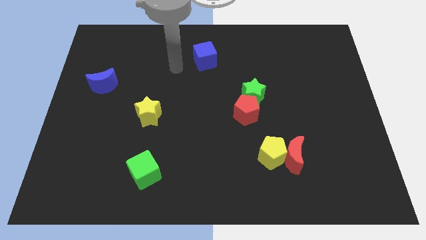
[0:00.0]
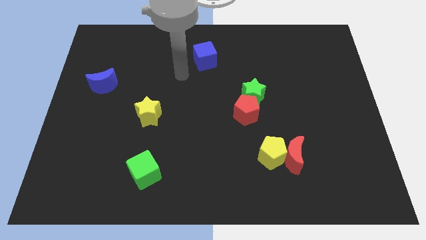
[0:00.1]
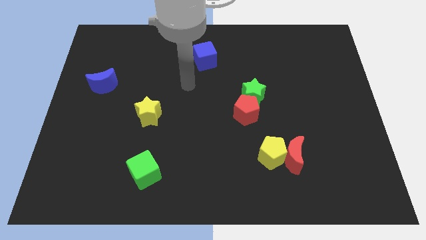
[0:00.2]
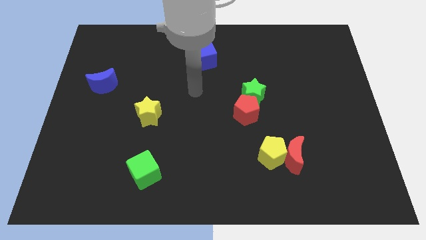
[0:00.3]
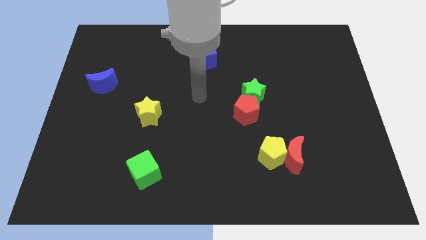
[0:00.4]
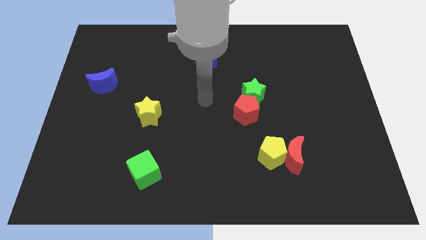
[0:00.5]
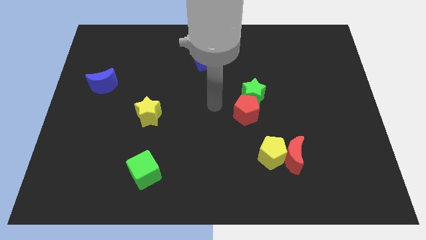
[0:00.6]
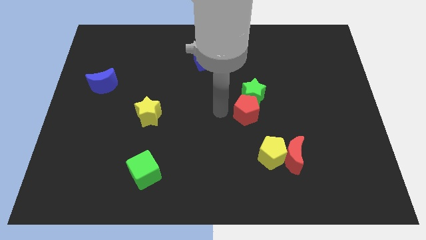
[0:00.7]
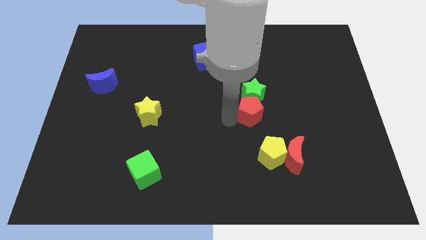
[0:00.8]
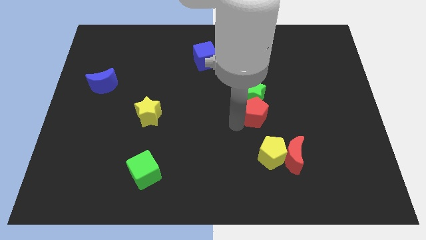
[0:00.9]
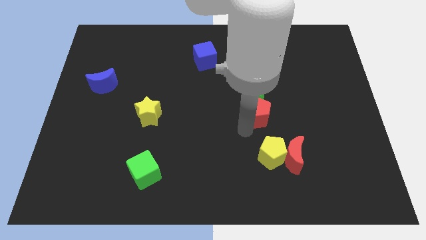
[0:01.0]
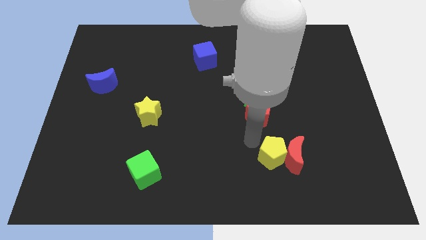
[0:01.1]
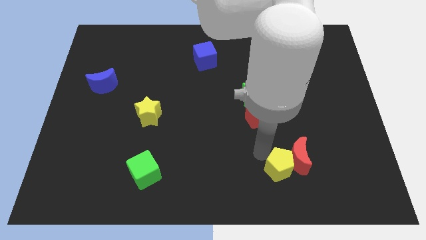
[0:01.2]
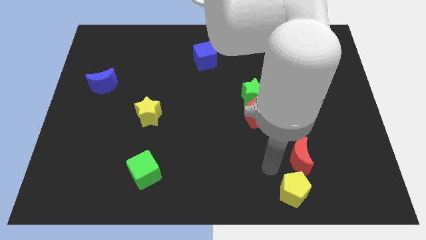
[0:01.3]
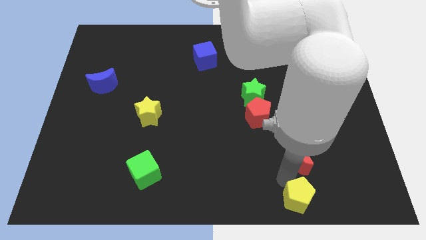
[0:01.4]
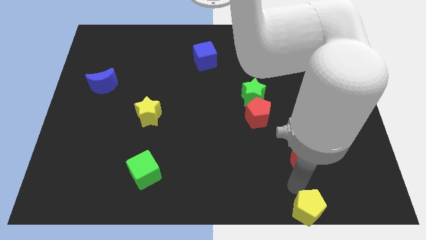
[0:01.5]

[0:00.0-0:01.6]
move the red moon away from the yellow pentagon

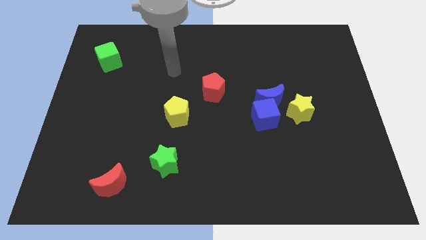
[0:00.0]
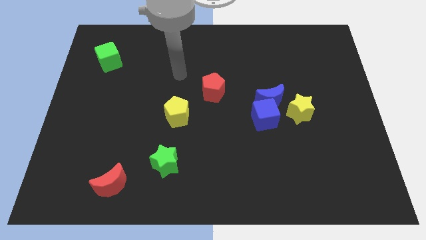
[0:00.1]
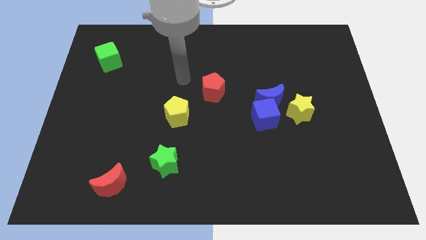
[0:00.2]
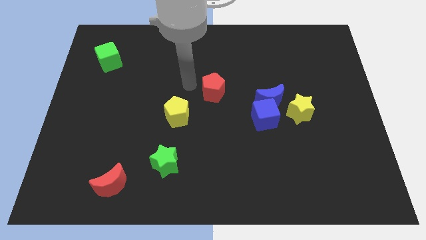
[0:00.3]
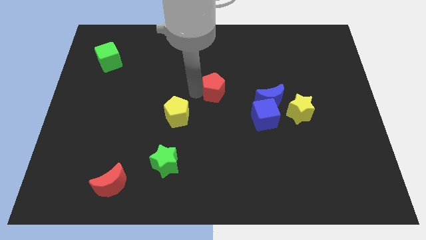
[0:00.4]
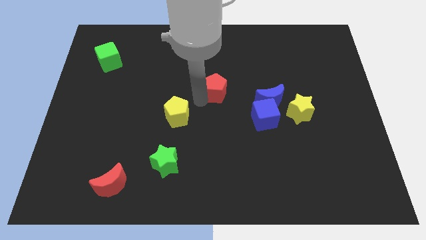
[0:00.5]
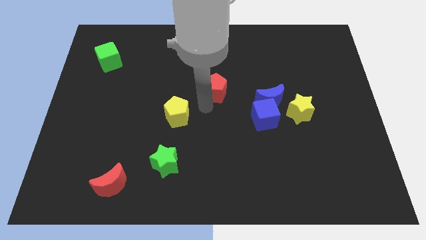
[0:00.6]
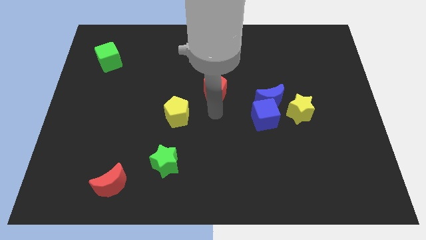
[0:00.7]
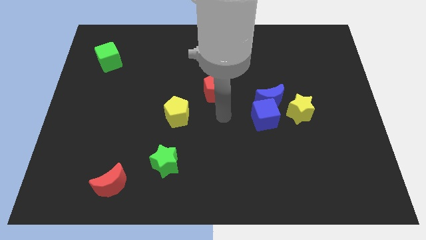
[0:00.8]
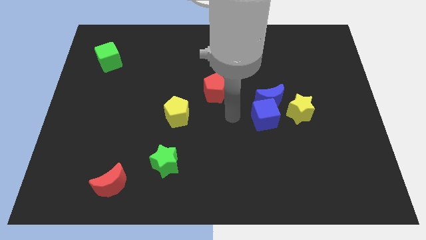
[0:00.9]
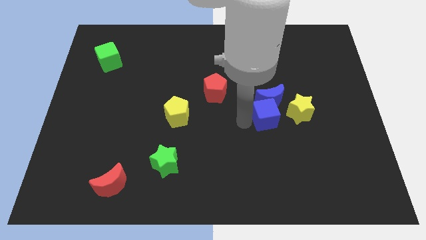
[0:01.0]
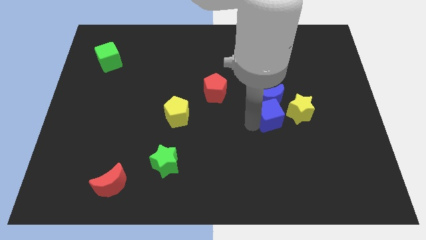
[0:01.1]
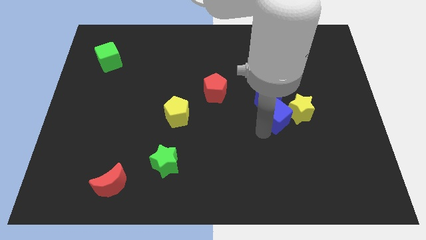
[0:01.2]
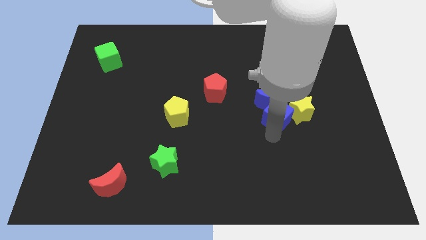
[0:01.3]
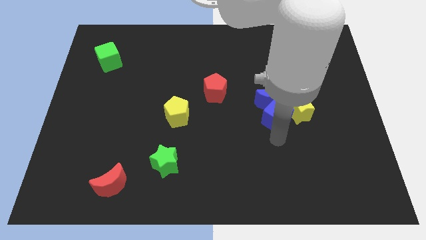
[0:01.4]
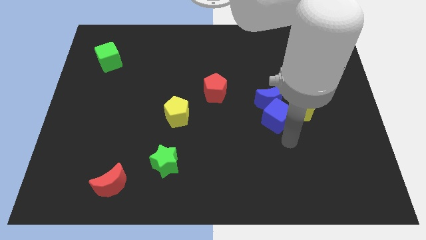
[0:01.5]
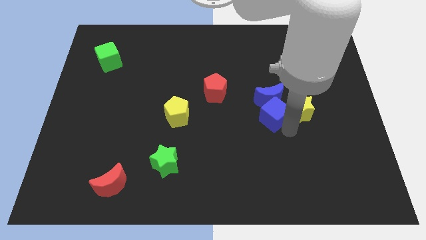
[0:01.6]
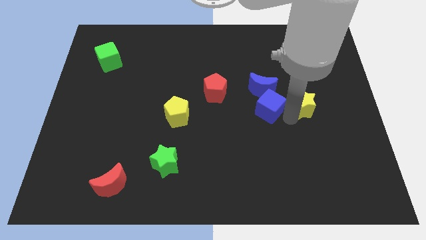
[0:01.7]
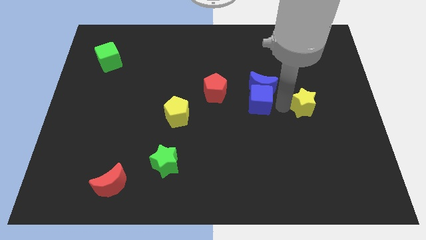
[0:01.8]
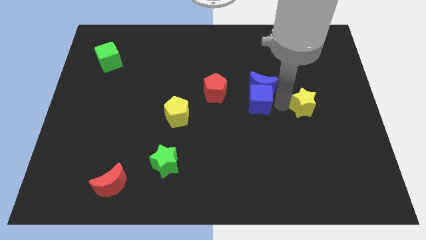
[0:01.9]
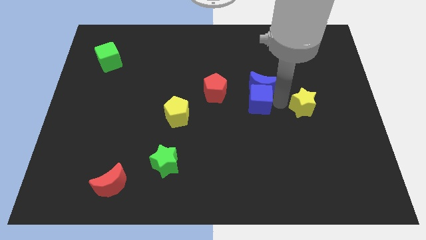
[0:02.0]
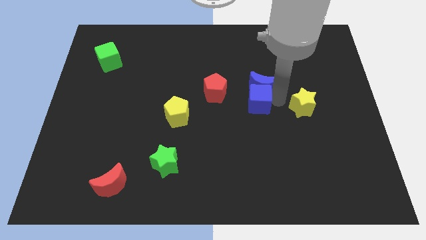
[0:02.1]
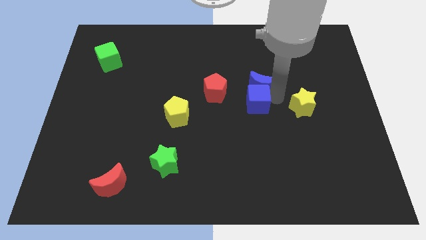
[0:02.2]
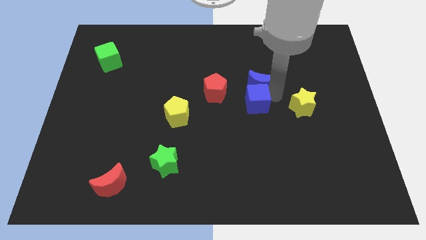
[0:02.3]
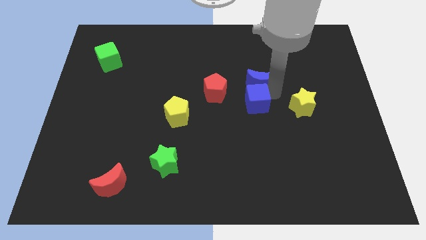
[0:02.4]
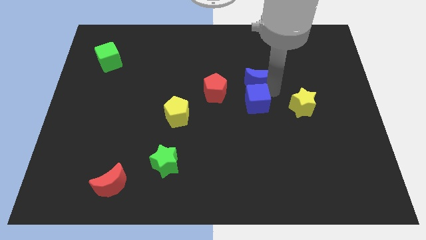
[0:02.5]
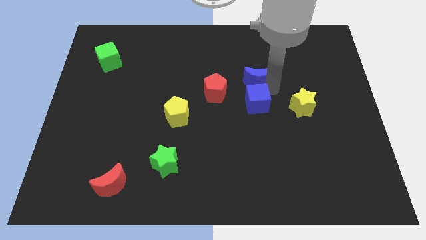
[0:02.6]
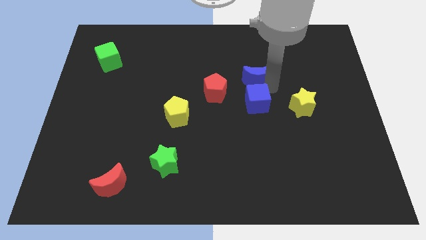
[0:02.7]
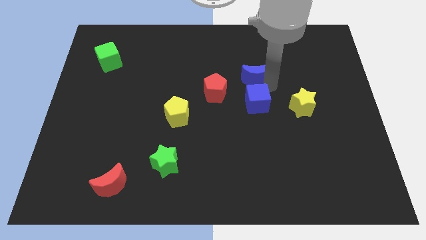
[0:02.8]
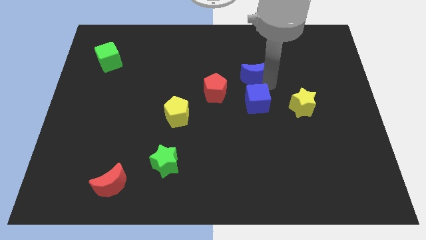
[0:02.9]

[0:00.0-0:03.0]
pull the blue moon apart from the blue cube and yellow star

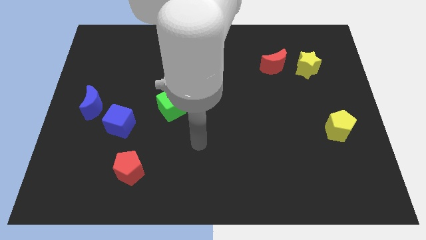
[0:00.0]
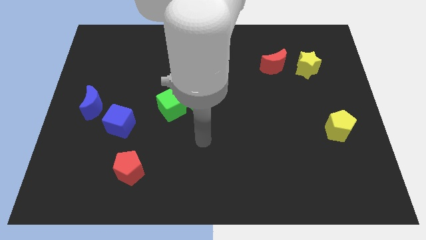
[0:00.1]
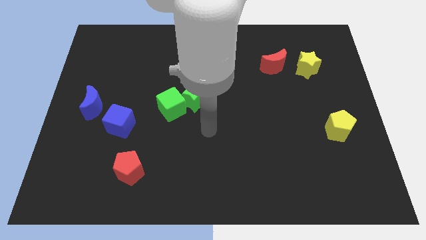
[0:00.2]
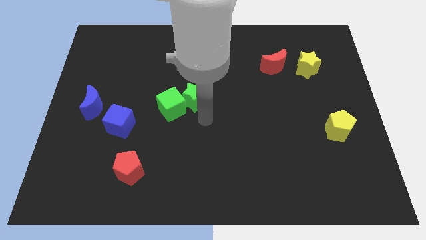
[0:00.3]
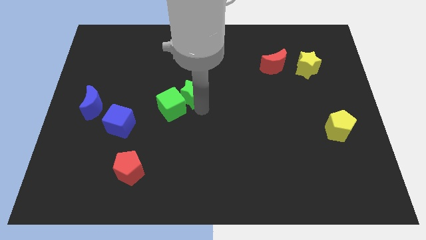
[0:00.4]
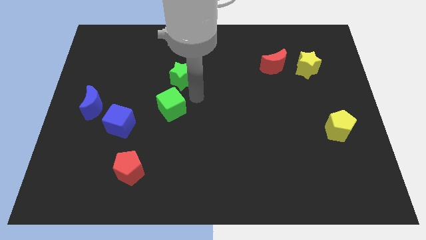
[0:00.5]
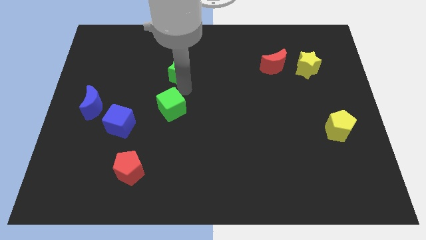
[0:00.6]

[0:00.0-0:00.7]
move the green cube away from the green star

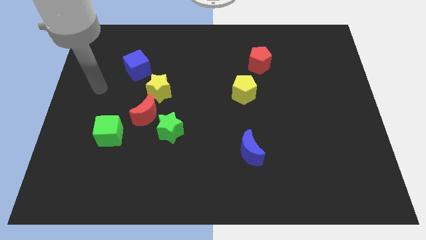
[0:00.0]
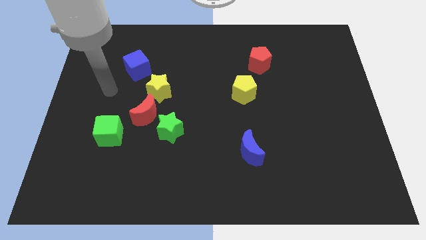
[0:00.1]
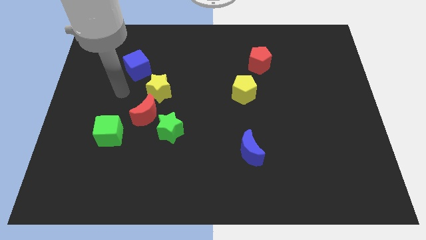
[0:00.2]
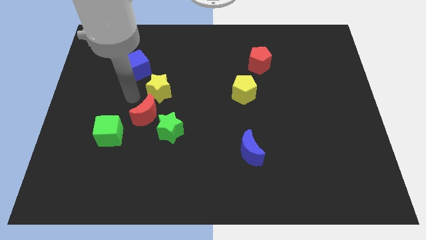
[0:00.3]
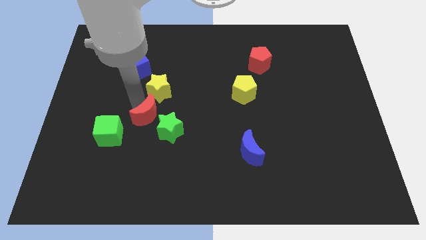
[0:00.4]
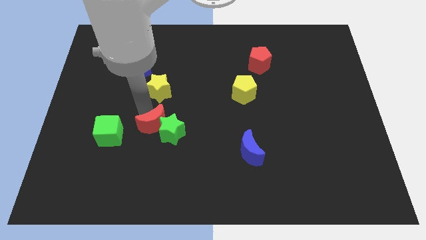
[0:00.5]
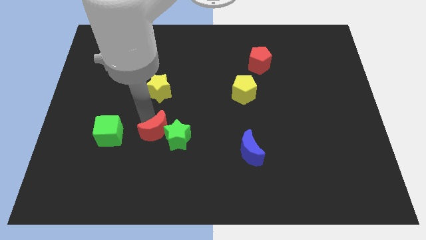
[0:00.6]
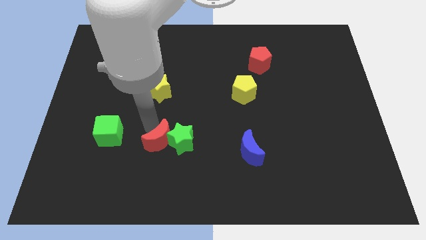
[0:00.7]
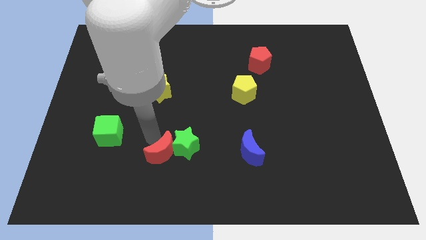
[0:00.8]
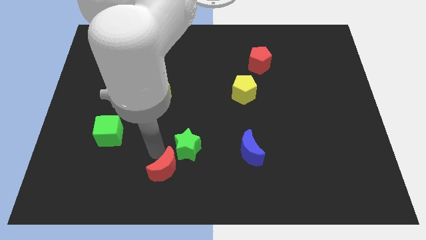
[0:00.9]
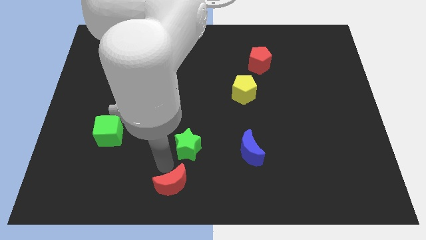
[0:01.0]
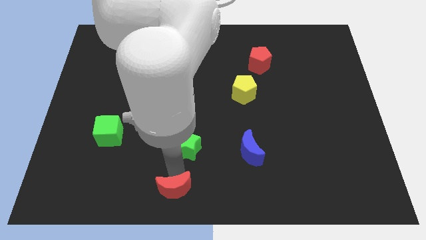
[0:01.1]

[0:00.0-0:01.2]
move the green star away from the red moon

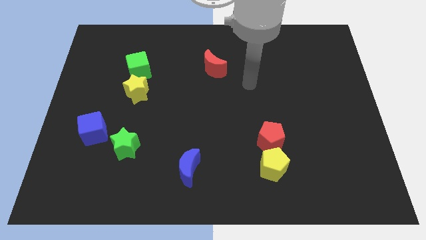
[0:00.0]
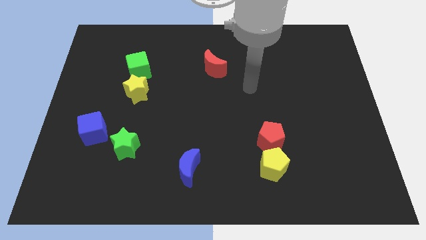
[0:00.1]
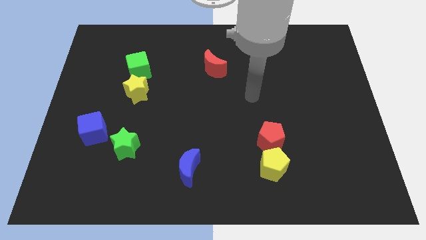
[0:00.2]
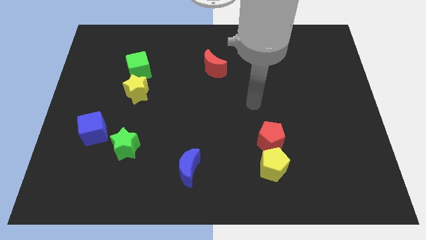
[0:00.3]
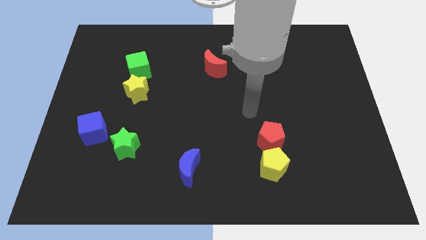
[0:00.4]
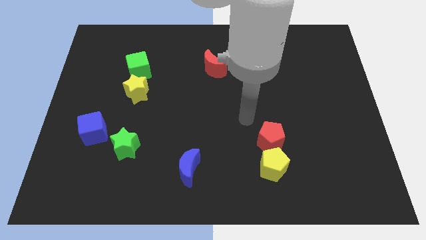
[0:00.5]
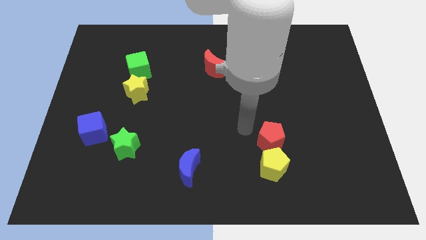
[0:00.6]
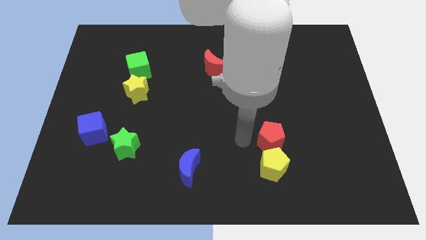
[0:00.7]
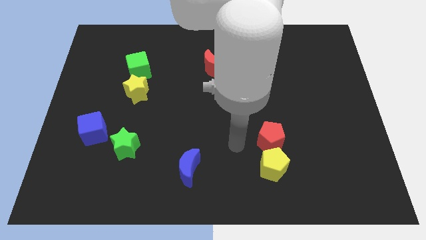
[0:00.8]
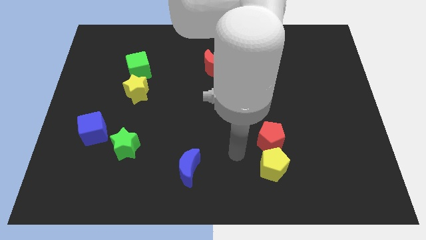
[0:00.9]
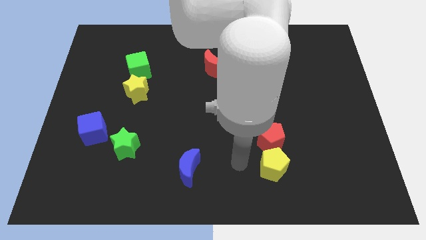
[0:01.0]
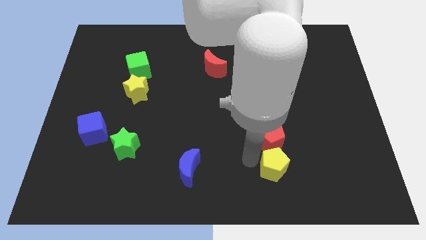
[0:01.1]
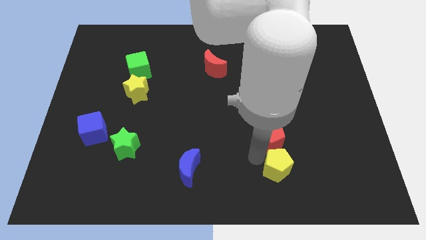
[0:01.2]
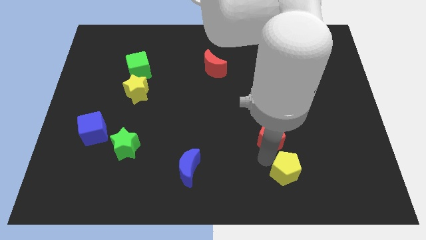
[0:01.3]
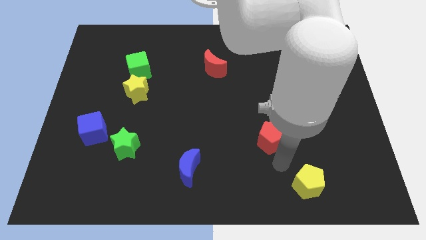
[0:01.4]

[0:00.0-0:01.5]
separate the red pentagon from the yellow pentagon

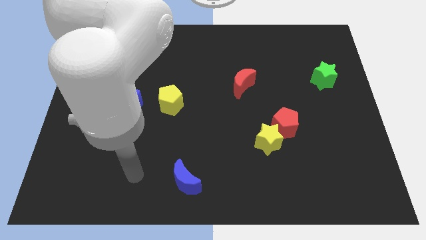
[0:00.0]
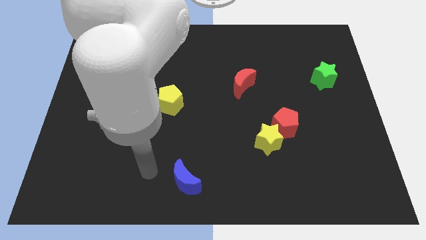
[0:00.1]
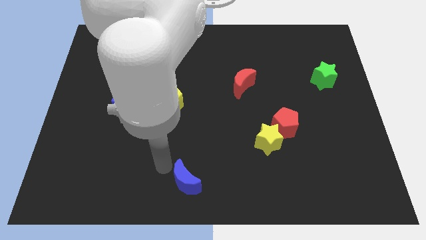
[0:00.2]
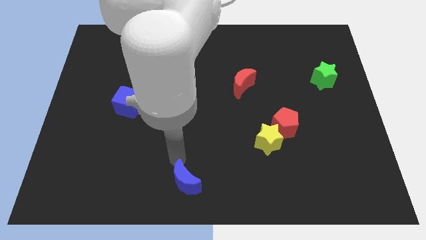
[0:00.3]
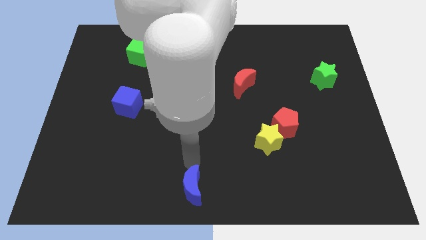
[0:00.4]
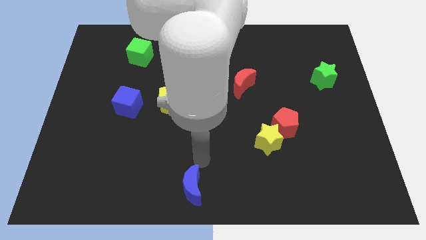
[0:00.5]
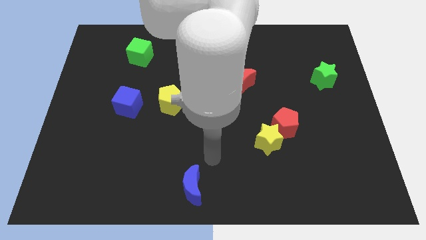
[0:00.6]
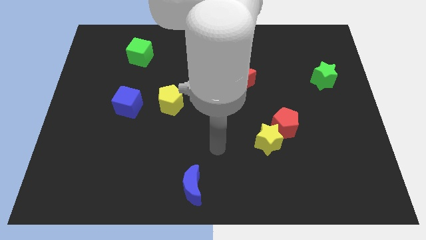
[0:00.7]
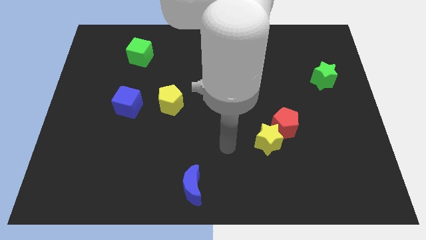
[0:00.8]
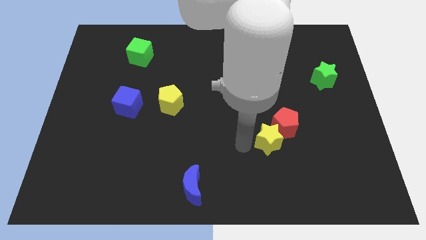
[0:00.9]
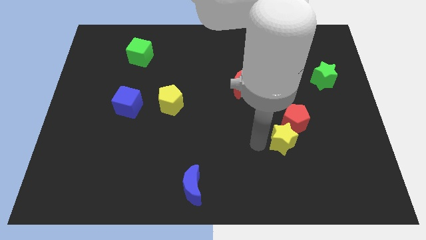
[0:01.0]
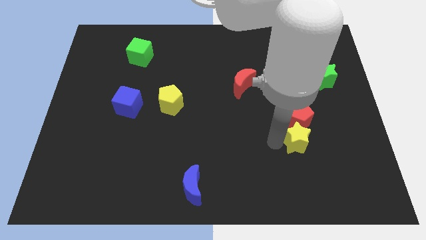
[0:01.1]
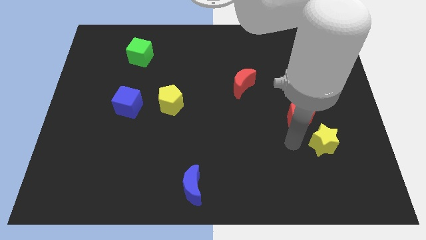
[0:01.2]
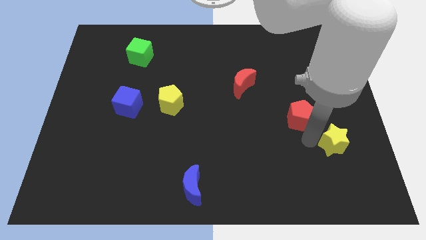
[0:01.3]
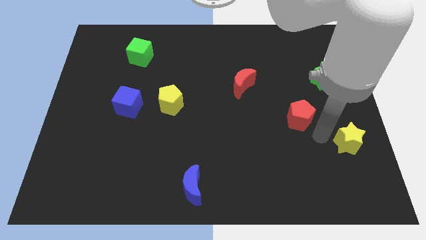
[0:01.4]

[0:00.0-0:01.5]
move the red pentagon away from the yellow star
